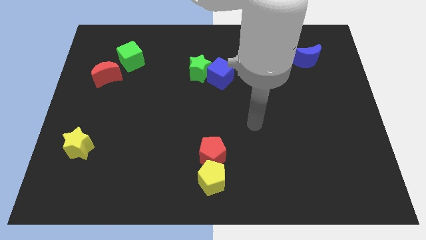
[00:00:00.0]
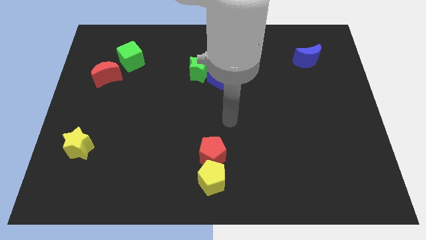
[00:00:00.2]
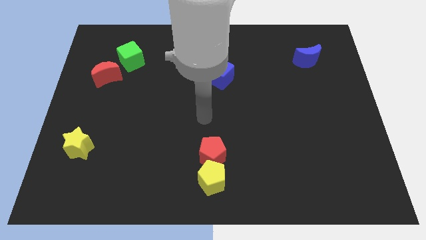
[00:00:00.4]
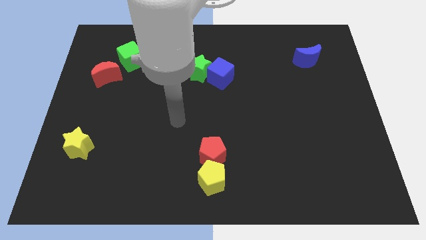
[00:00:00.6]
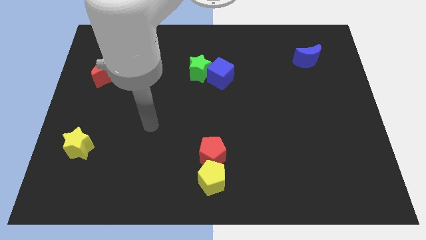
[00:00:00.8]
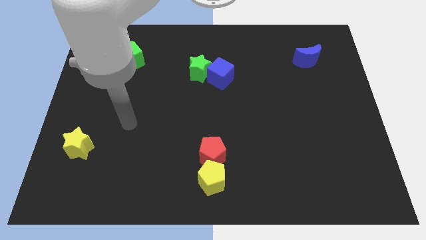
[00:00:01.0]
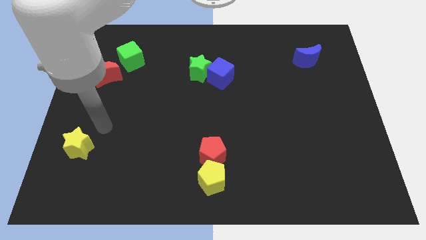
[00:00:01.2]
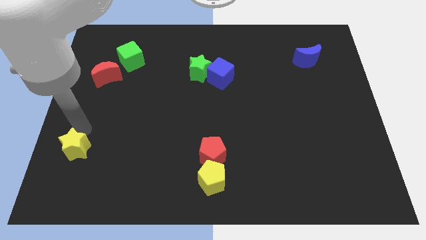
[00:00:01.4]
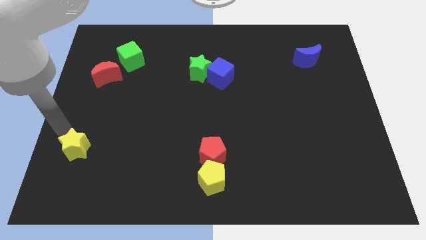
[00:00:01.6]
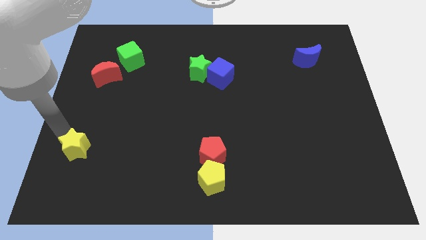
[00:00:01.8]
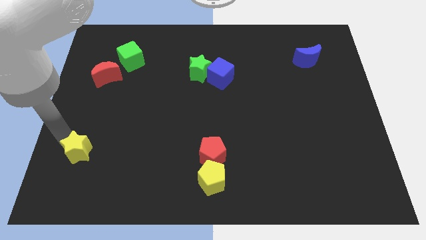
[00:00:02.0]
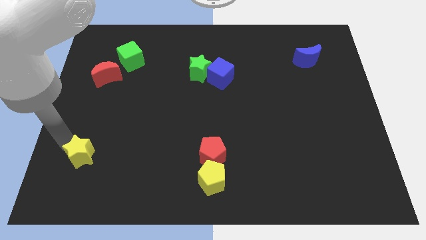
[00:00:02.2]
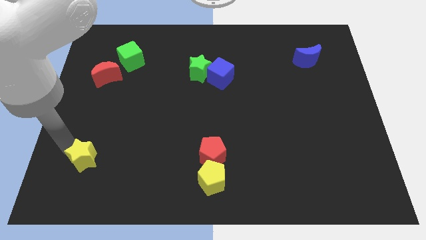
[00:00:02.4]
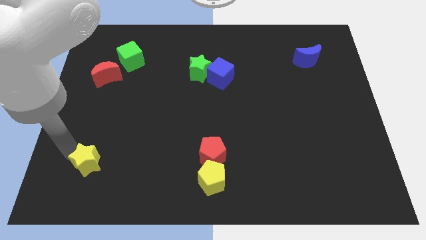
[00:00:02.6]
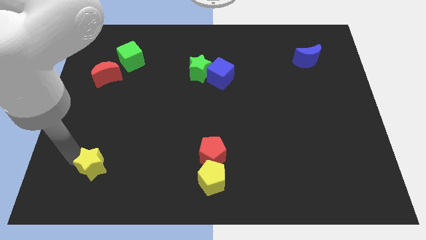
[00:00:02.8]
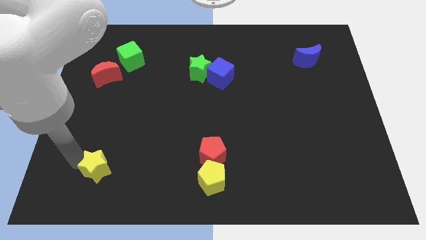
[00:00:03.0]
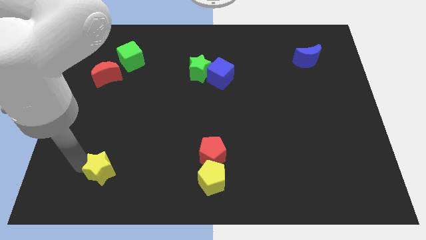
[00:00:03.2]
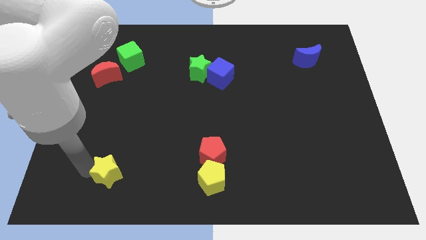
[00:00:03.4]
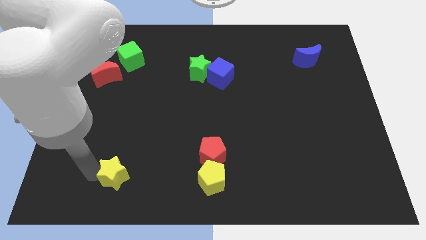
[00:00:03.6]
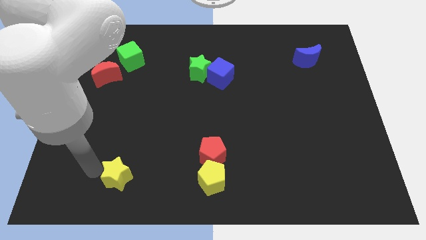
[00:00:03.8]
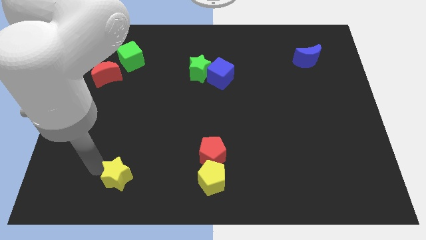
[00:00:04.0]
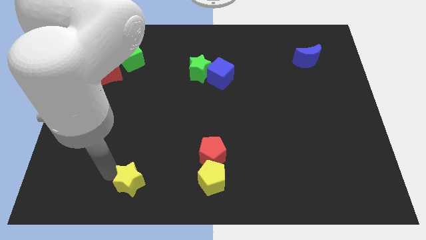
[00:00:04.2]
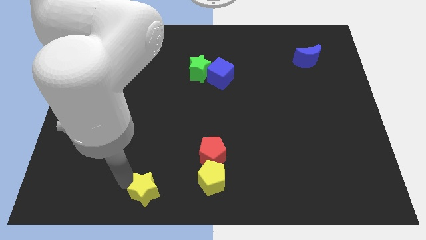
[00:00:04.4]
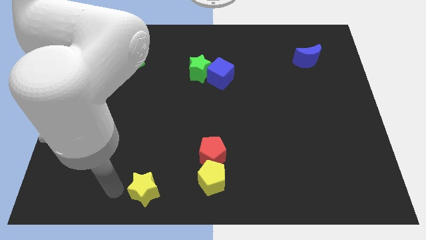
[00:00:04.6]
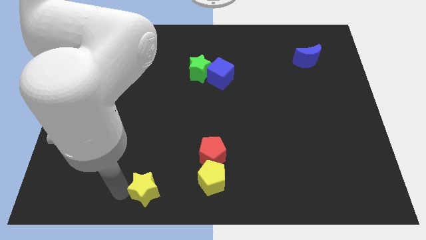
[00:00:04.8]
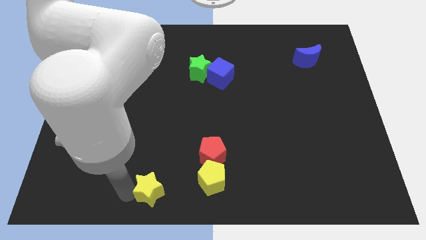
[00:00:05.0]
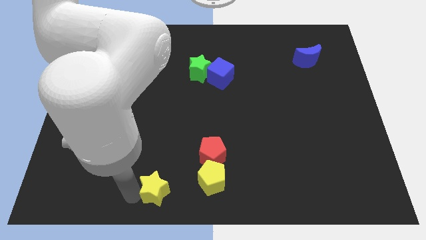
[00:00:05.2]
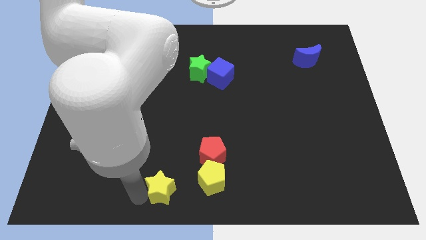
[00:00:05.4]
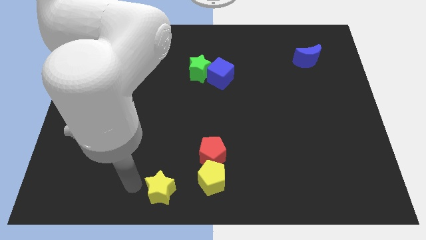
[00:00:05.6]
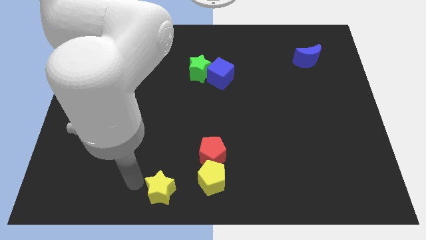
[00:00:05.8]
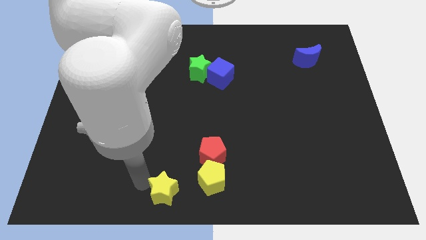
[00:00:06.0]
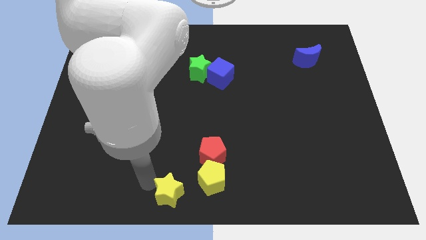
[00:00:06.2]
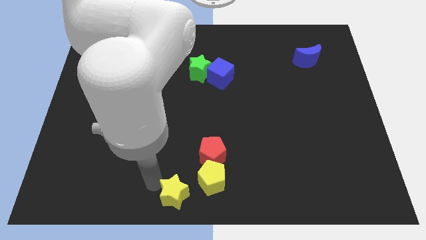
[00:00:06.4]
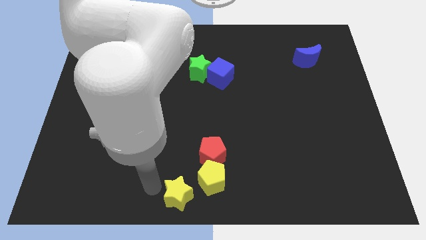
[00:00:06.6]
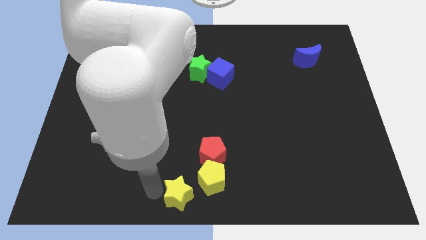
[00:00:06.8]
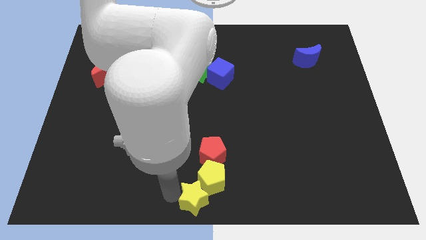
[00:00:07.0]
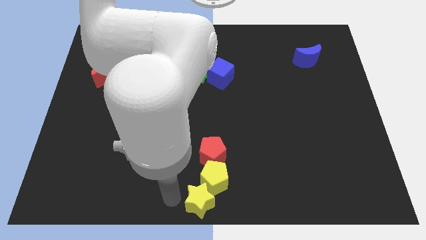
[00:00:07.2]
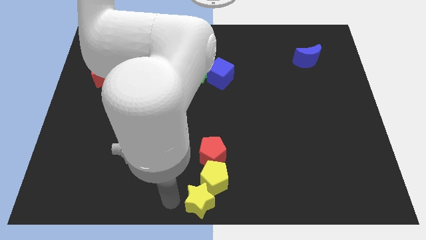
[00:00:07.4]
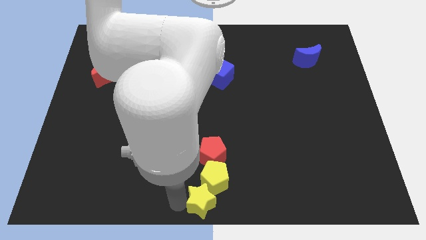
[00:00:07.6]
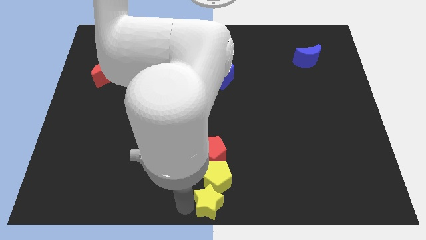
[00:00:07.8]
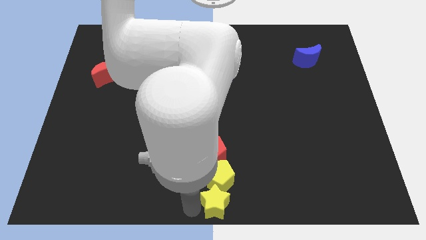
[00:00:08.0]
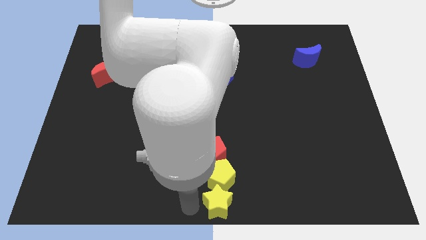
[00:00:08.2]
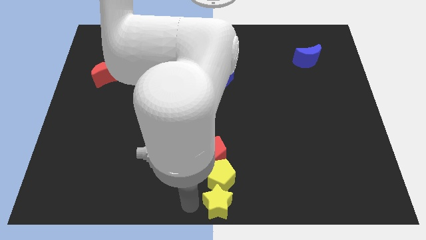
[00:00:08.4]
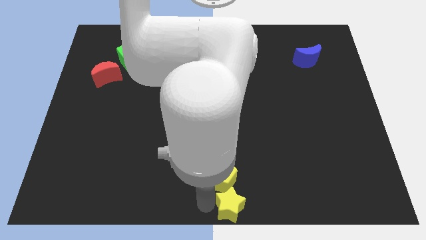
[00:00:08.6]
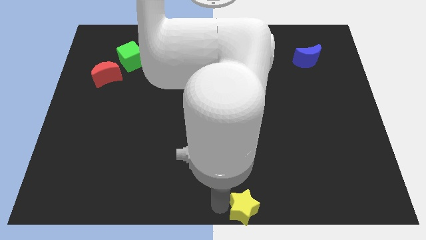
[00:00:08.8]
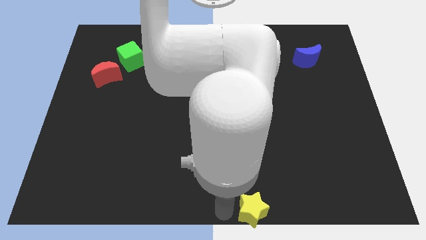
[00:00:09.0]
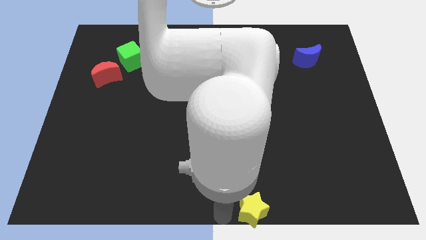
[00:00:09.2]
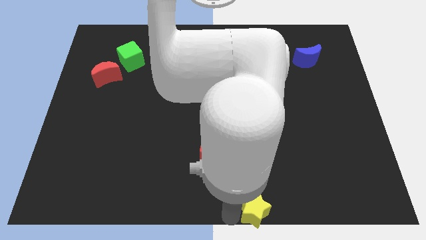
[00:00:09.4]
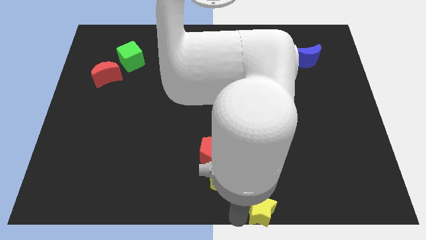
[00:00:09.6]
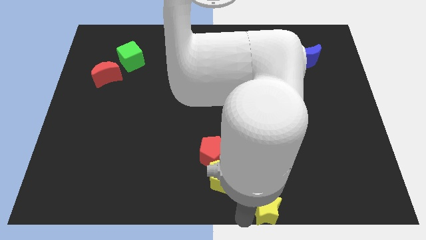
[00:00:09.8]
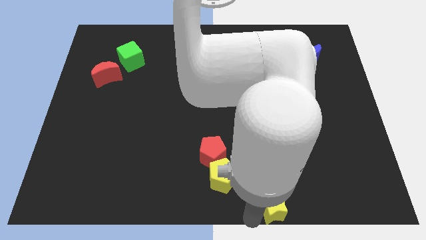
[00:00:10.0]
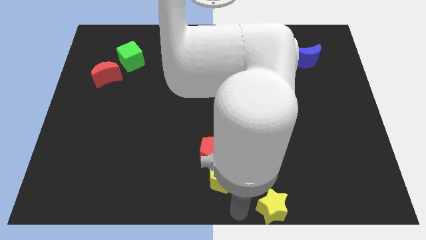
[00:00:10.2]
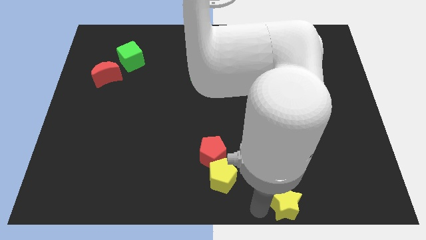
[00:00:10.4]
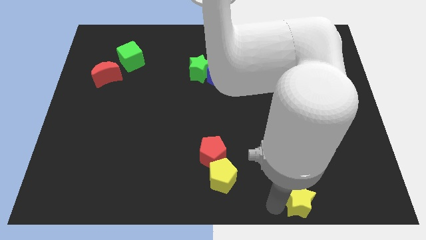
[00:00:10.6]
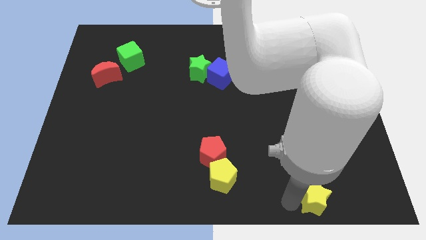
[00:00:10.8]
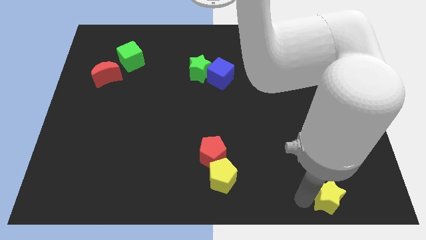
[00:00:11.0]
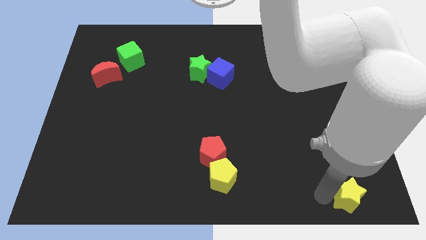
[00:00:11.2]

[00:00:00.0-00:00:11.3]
slide the yellow star to the bottom right of the board

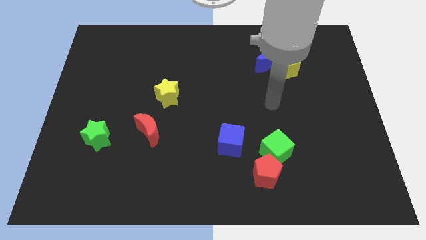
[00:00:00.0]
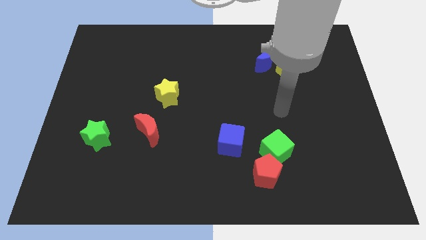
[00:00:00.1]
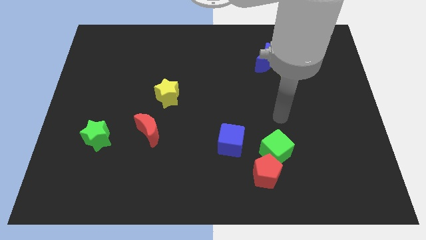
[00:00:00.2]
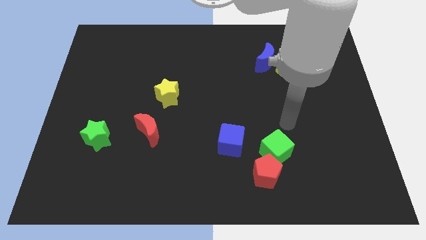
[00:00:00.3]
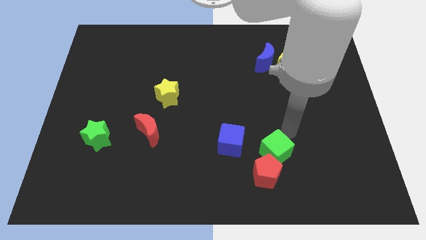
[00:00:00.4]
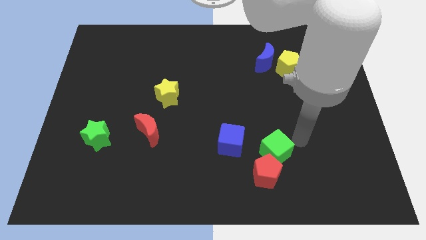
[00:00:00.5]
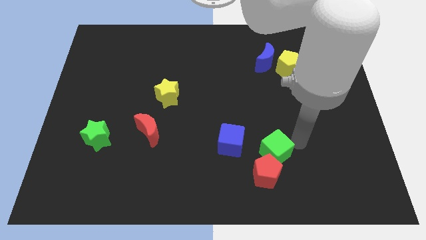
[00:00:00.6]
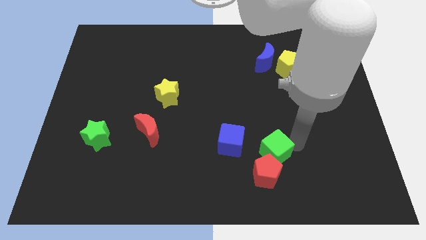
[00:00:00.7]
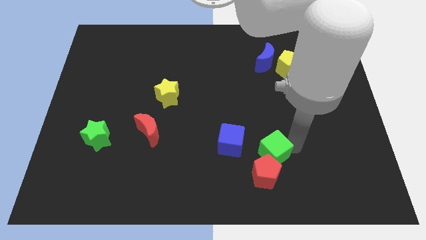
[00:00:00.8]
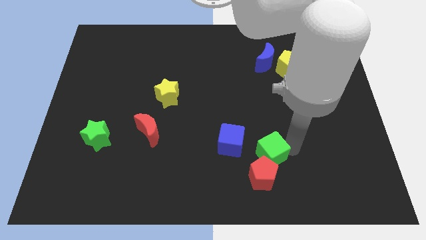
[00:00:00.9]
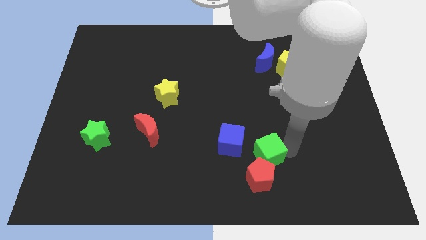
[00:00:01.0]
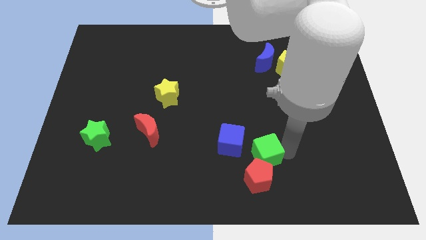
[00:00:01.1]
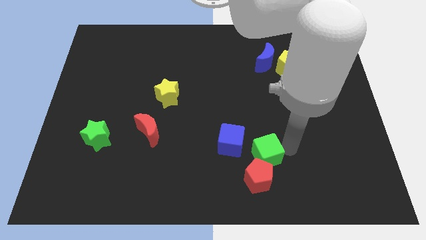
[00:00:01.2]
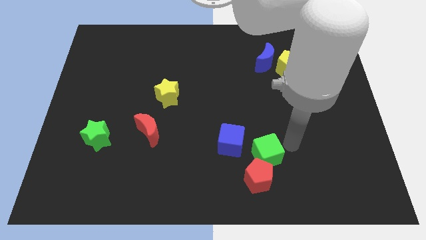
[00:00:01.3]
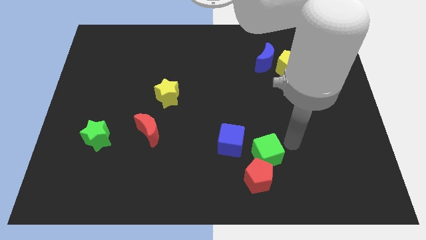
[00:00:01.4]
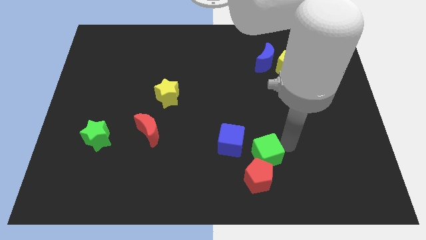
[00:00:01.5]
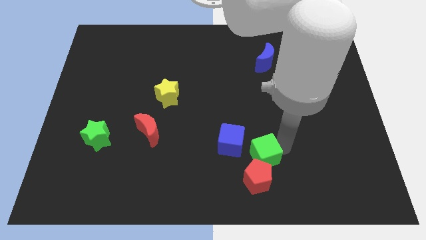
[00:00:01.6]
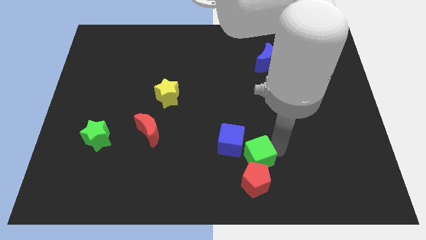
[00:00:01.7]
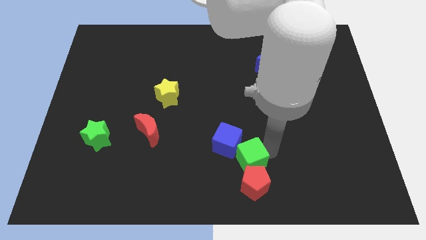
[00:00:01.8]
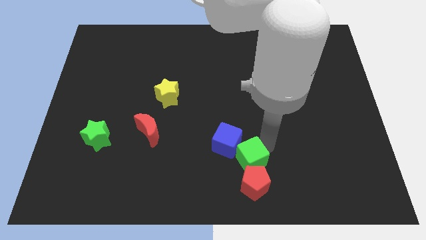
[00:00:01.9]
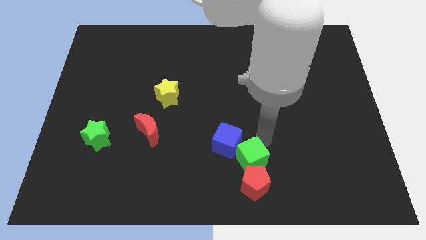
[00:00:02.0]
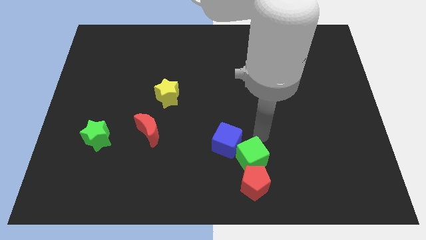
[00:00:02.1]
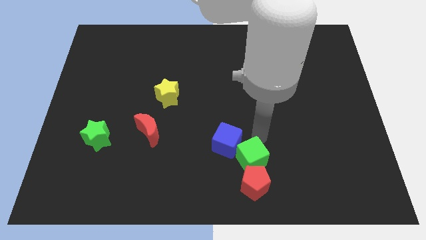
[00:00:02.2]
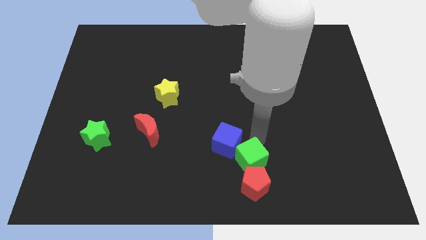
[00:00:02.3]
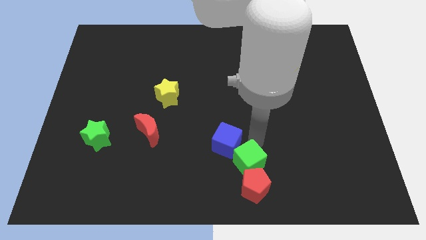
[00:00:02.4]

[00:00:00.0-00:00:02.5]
put the green cube to the bottom
